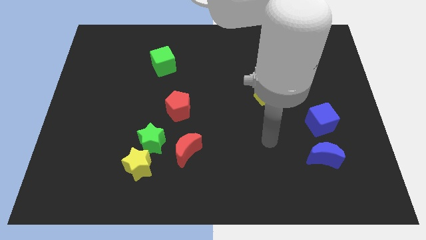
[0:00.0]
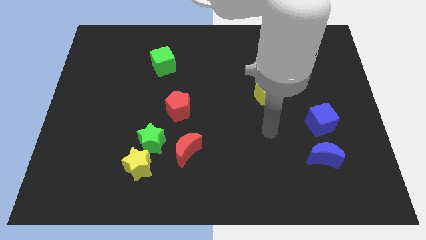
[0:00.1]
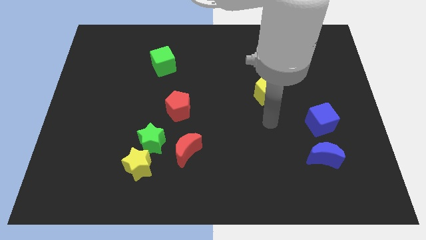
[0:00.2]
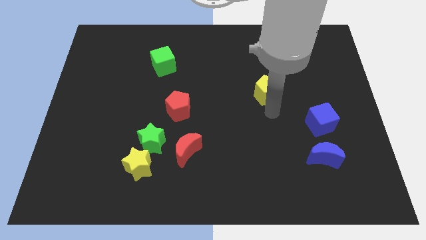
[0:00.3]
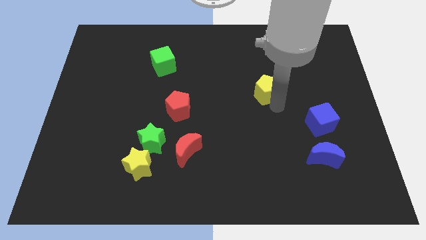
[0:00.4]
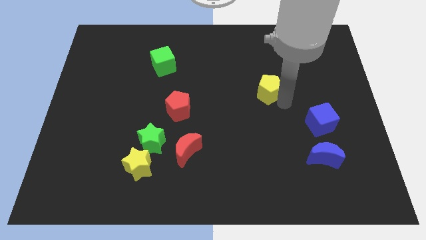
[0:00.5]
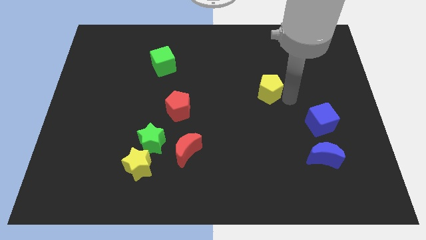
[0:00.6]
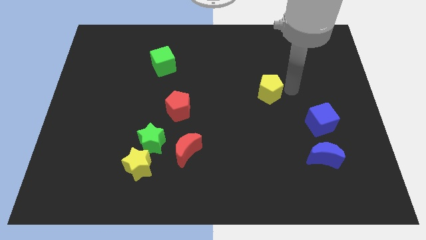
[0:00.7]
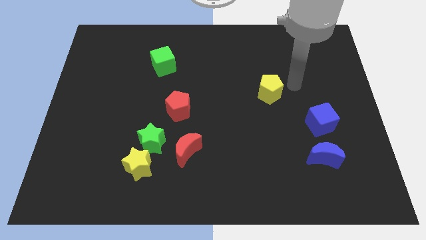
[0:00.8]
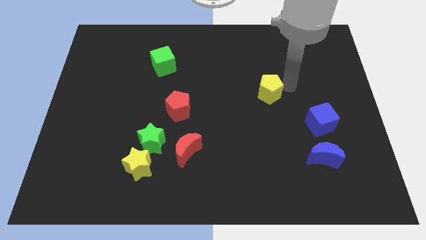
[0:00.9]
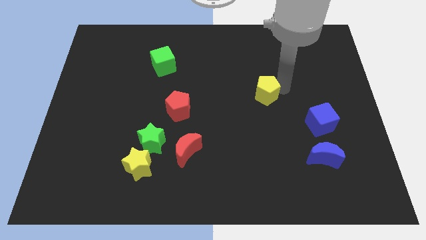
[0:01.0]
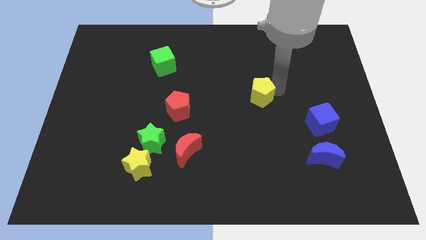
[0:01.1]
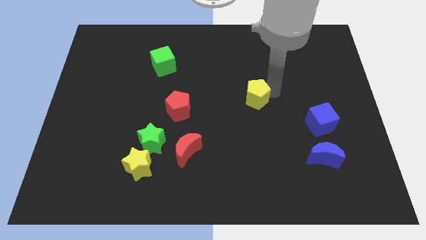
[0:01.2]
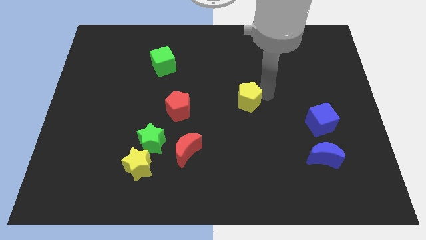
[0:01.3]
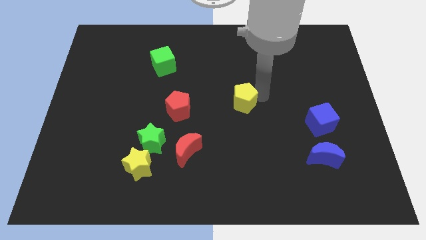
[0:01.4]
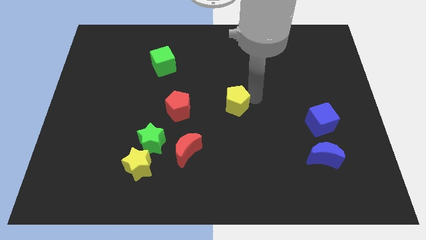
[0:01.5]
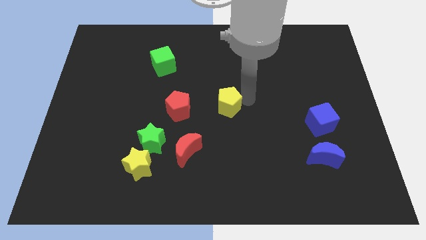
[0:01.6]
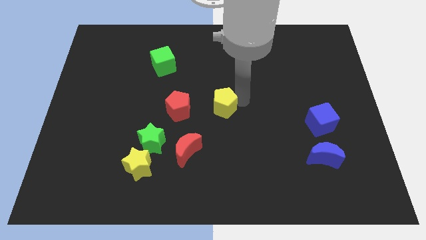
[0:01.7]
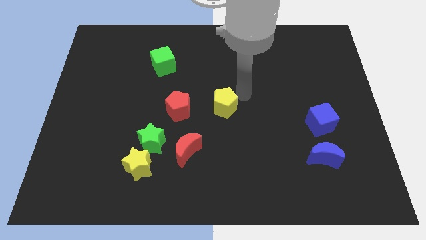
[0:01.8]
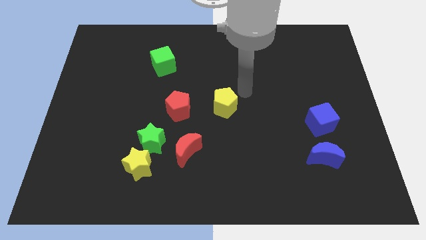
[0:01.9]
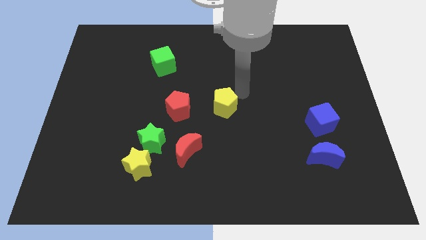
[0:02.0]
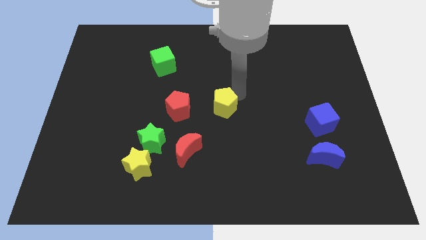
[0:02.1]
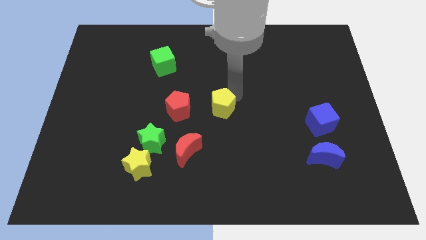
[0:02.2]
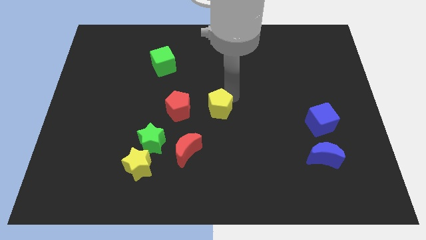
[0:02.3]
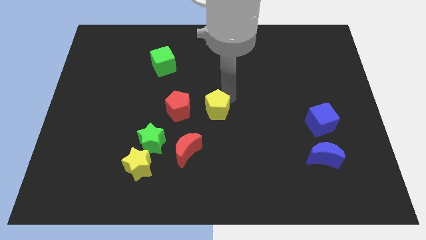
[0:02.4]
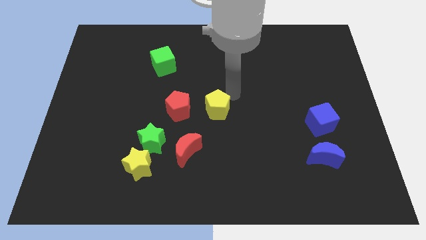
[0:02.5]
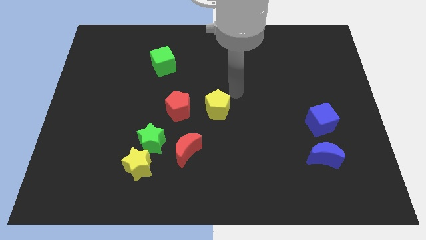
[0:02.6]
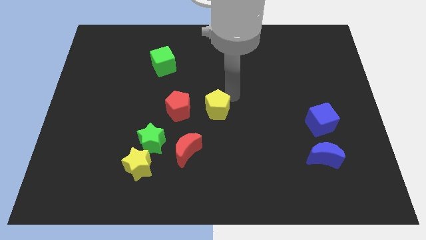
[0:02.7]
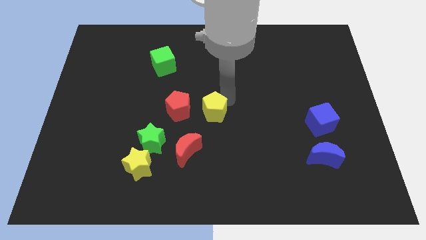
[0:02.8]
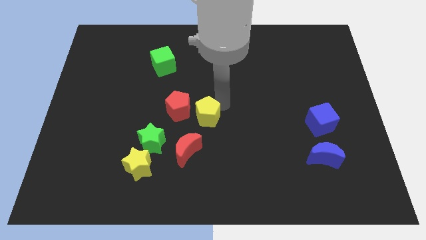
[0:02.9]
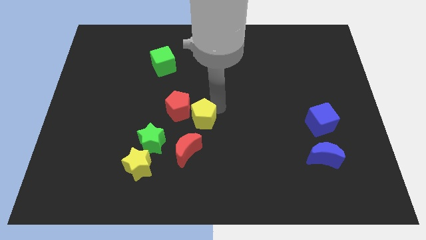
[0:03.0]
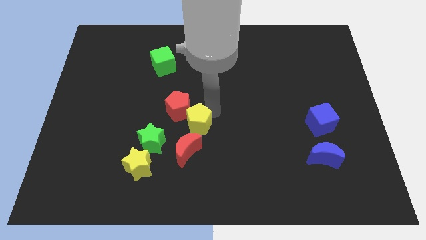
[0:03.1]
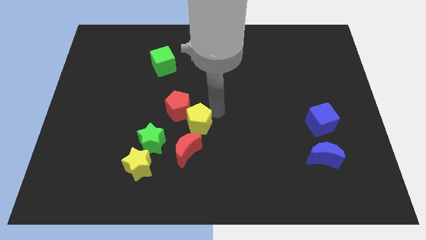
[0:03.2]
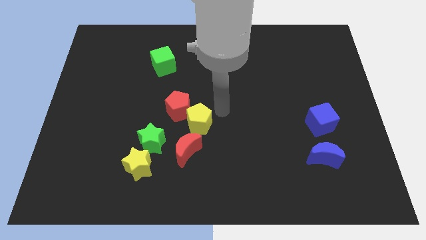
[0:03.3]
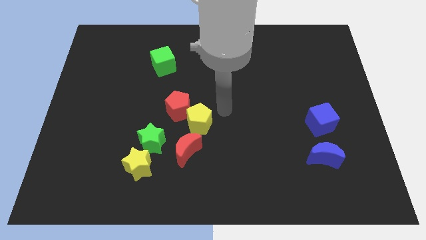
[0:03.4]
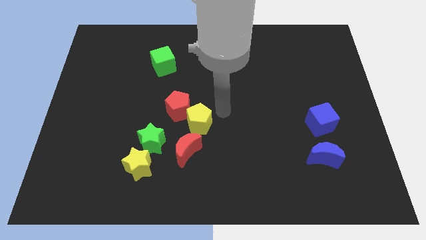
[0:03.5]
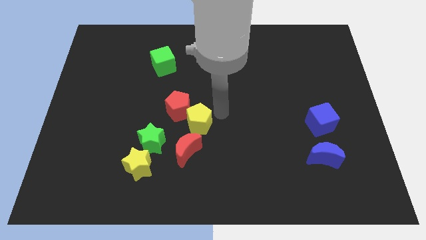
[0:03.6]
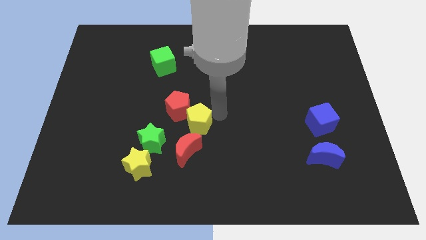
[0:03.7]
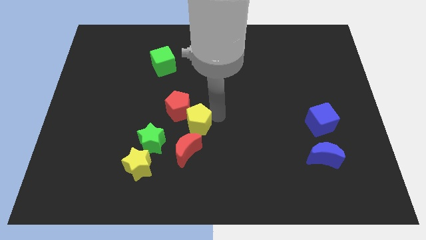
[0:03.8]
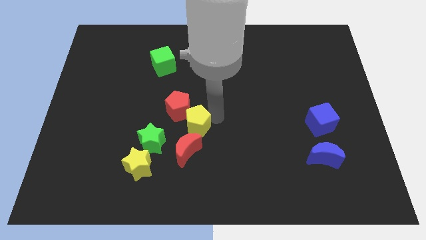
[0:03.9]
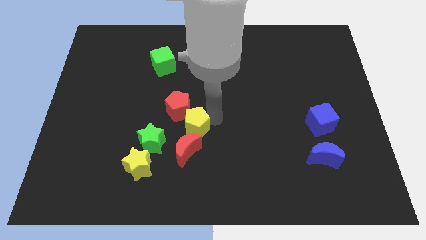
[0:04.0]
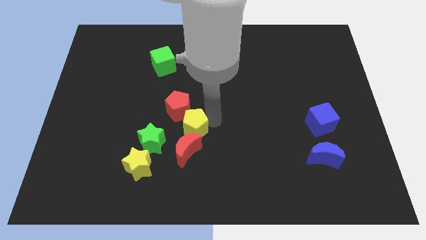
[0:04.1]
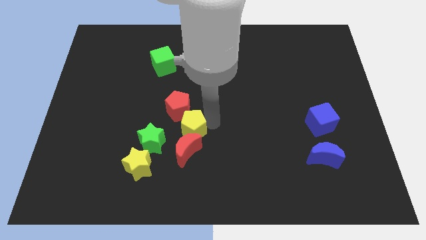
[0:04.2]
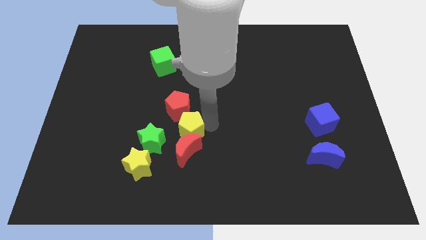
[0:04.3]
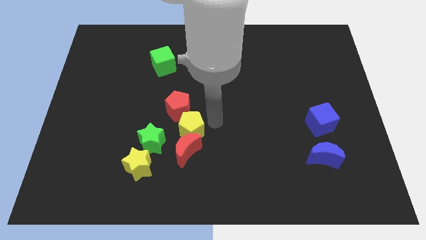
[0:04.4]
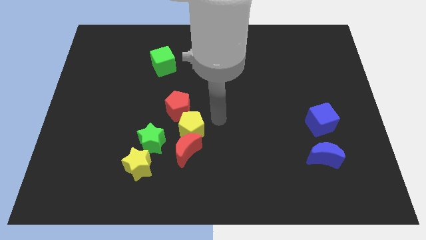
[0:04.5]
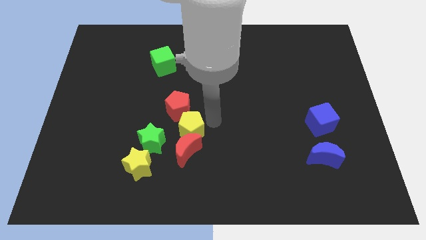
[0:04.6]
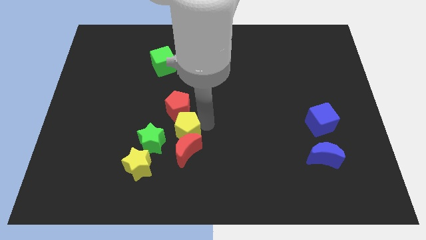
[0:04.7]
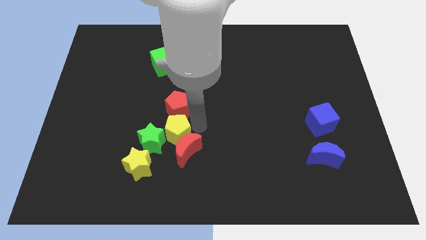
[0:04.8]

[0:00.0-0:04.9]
move the yellow pentagon next to the green star

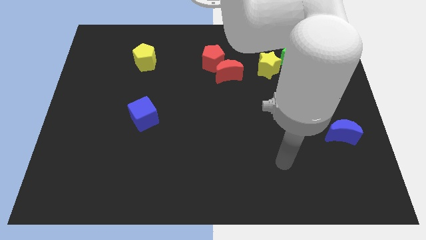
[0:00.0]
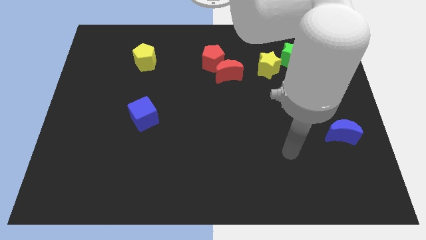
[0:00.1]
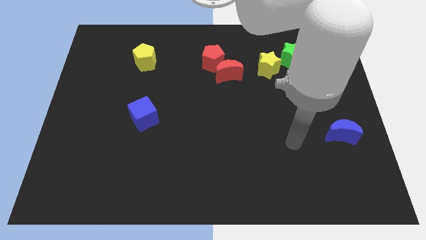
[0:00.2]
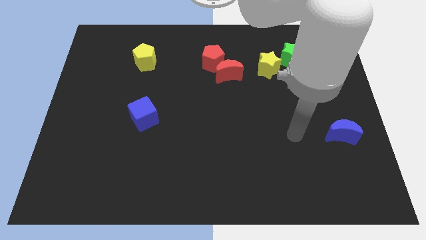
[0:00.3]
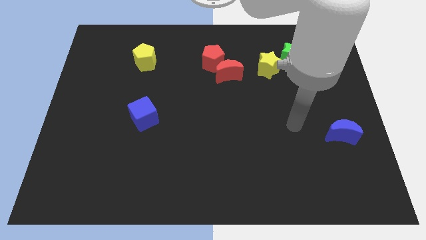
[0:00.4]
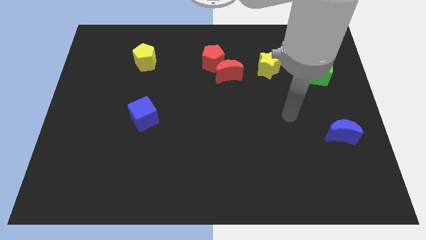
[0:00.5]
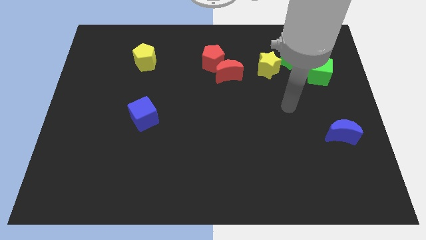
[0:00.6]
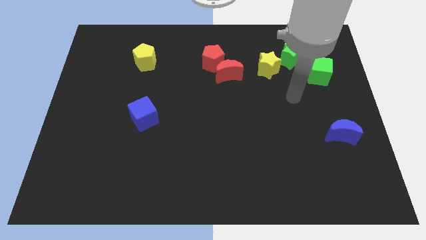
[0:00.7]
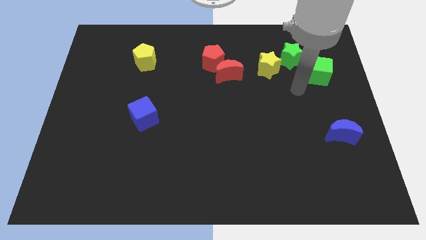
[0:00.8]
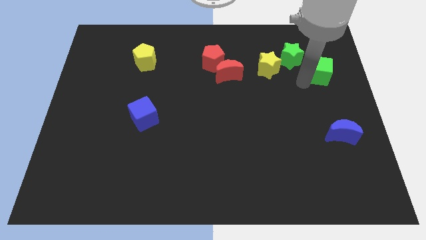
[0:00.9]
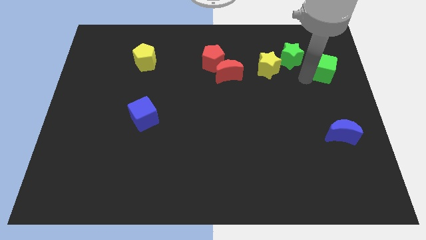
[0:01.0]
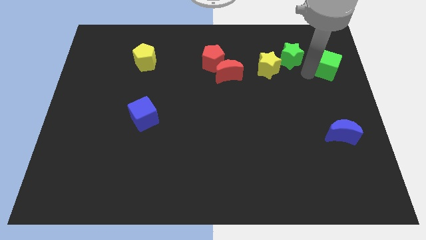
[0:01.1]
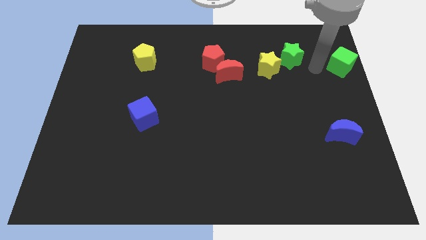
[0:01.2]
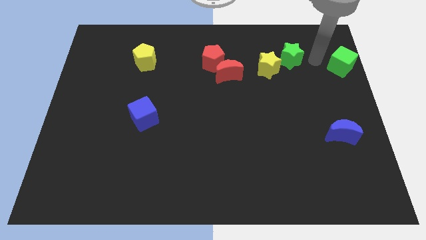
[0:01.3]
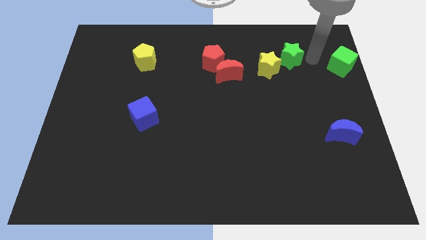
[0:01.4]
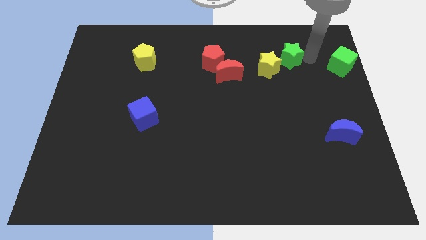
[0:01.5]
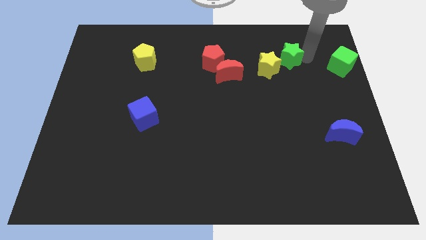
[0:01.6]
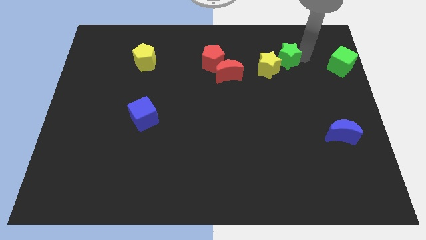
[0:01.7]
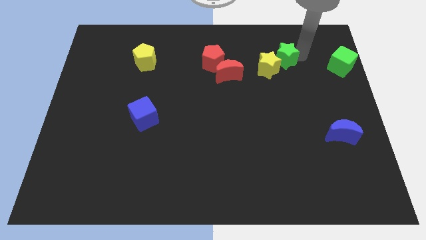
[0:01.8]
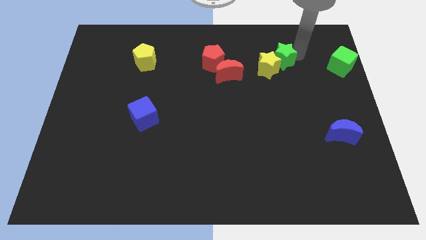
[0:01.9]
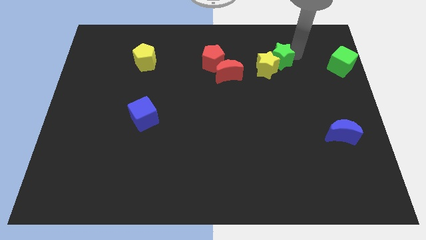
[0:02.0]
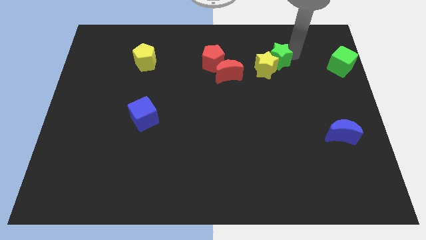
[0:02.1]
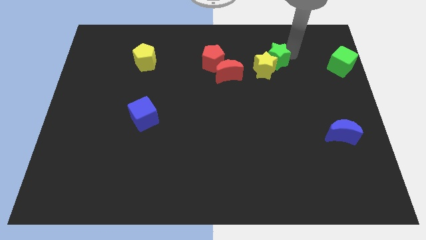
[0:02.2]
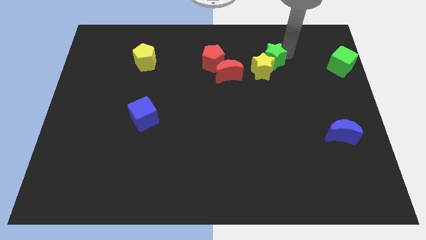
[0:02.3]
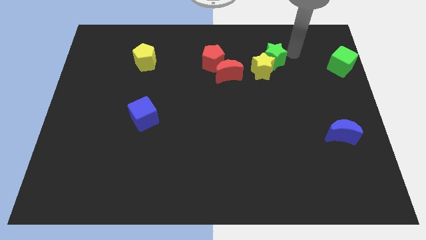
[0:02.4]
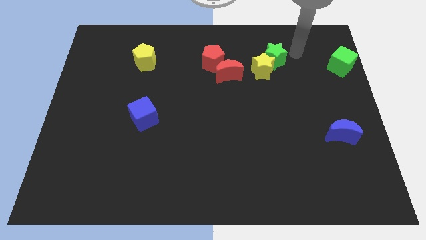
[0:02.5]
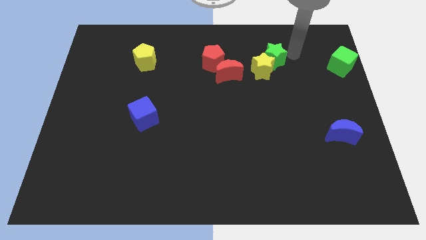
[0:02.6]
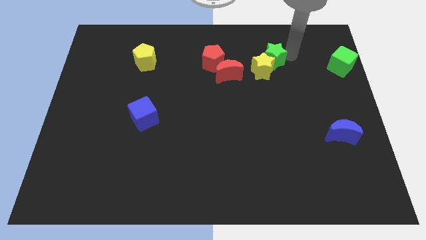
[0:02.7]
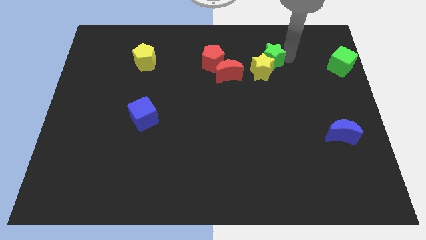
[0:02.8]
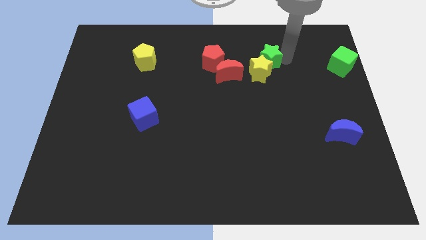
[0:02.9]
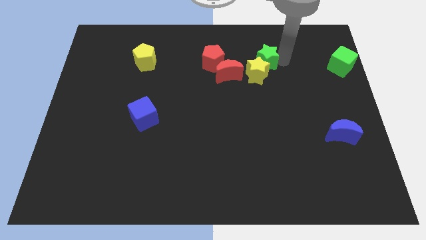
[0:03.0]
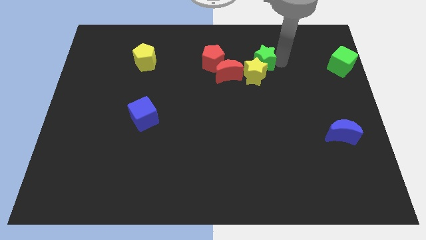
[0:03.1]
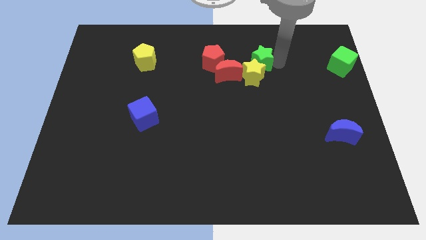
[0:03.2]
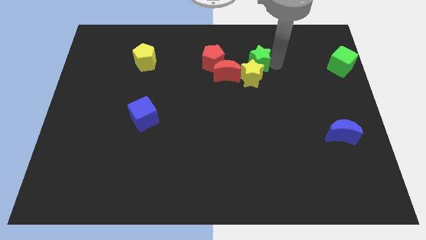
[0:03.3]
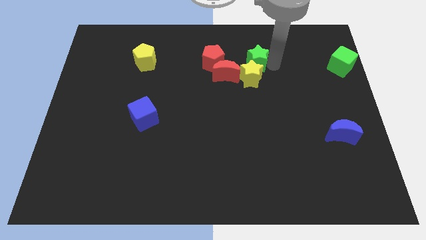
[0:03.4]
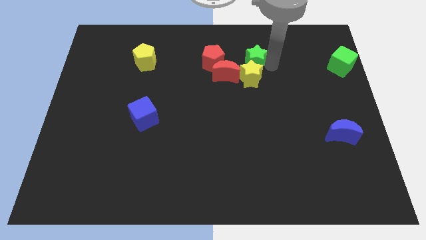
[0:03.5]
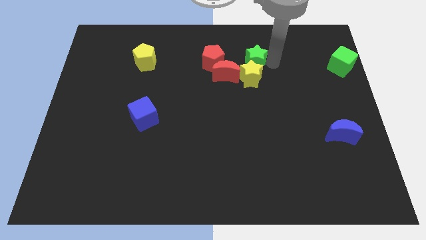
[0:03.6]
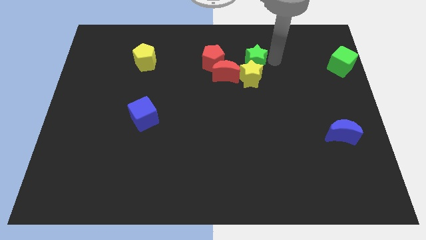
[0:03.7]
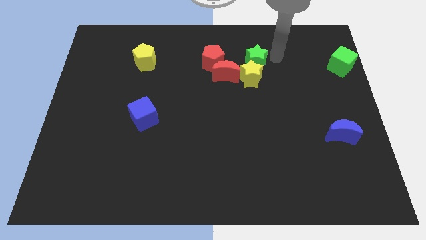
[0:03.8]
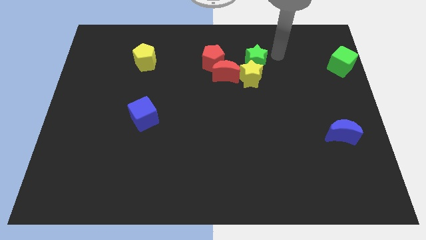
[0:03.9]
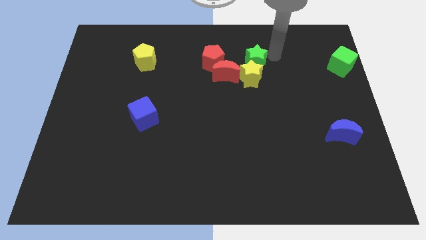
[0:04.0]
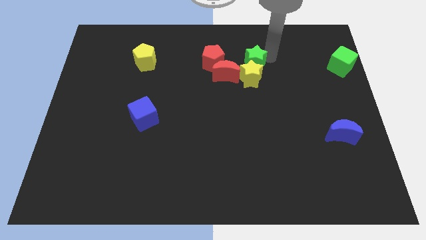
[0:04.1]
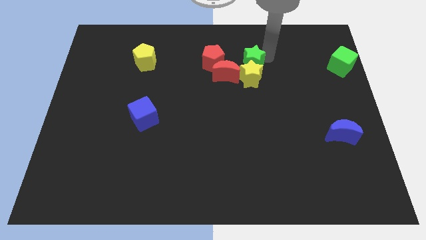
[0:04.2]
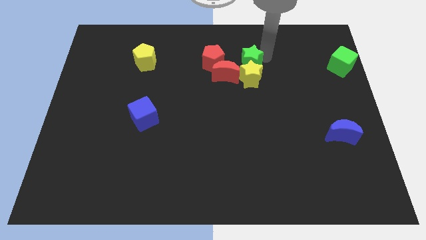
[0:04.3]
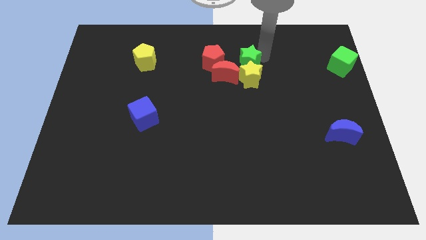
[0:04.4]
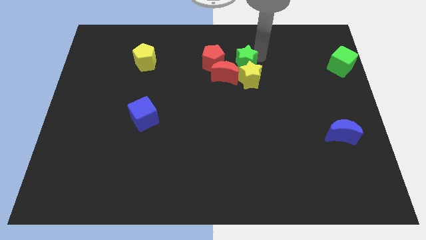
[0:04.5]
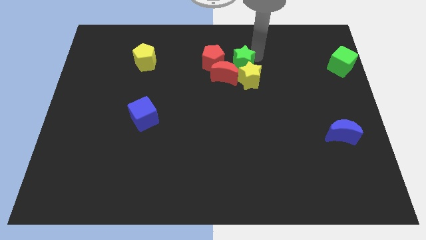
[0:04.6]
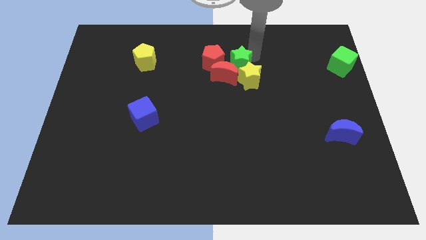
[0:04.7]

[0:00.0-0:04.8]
move the green star towards the red moon
